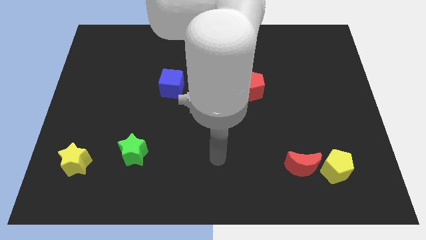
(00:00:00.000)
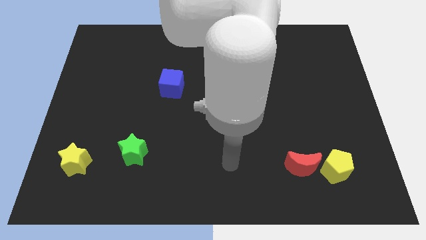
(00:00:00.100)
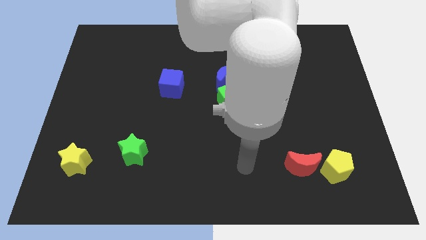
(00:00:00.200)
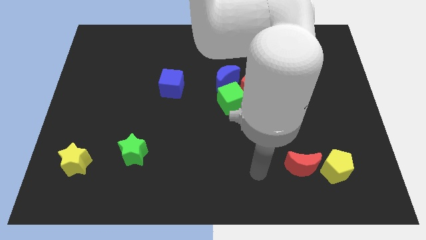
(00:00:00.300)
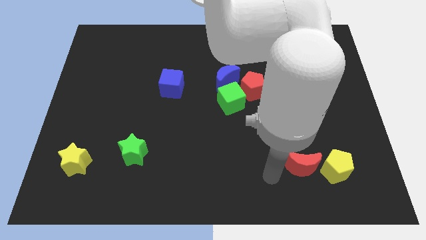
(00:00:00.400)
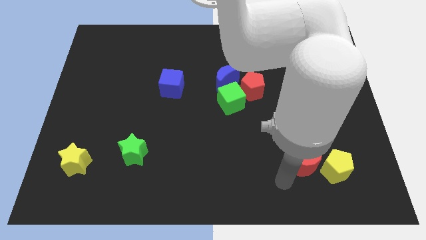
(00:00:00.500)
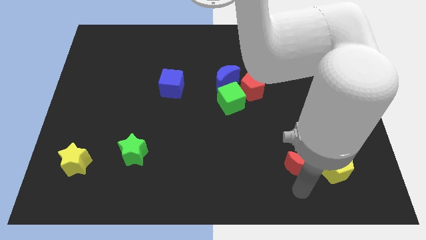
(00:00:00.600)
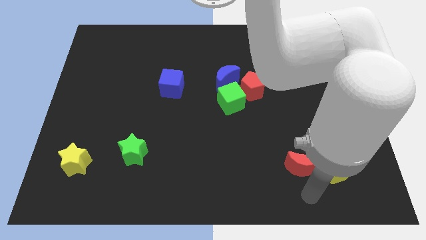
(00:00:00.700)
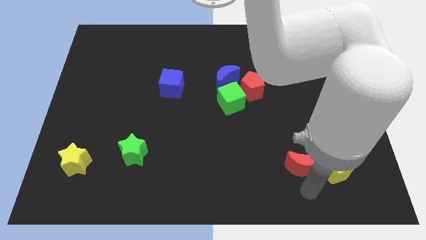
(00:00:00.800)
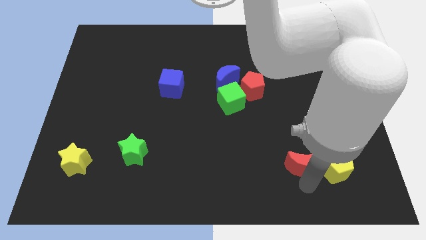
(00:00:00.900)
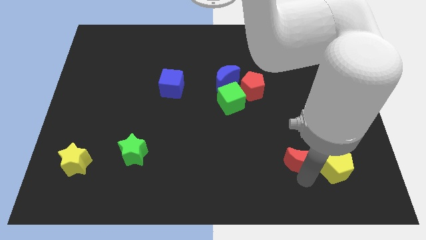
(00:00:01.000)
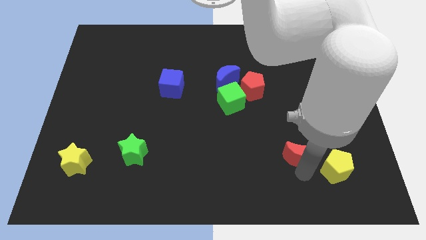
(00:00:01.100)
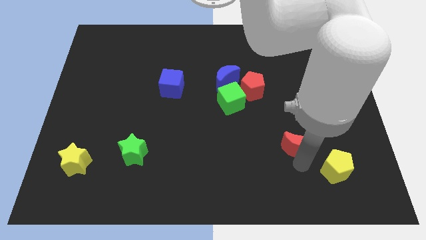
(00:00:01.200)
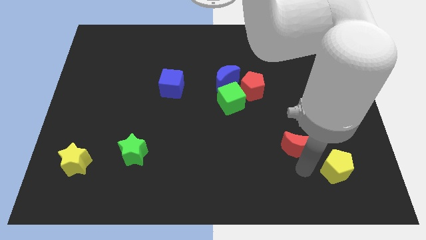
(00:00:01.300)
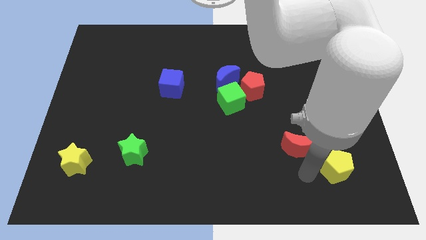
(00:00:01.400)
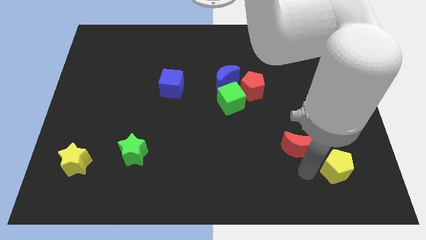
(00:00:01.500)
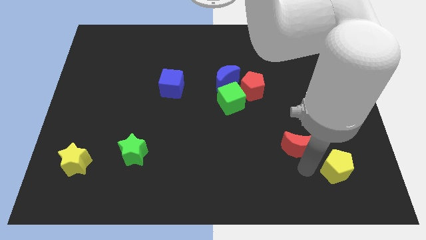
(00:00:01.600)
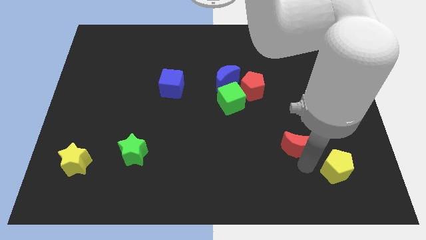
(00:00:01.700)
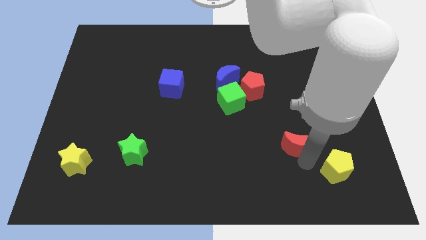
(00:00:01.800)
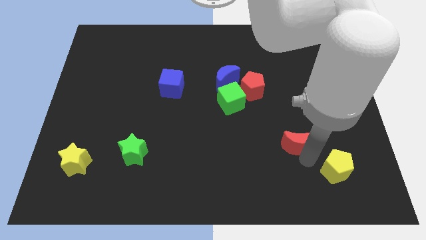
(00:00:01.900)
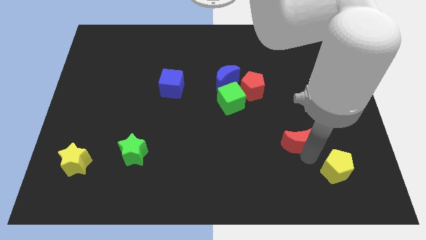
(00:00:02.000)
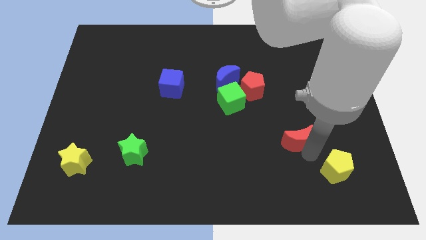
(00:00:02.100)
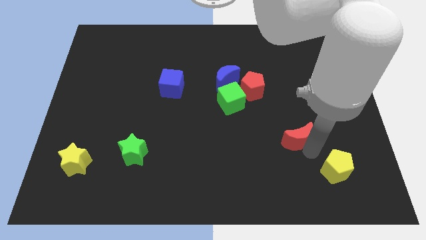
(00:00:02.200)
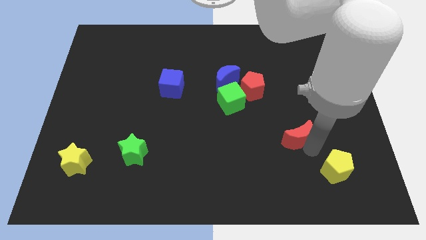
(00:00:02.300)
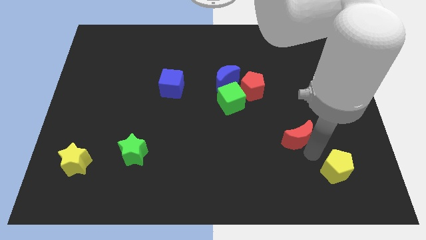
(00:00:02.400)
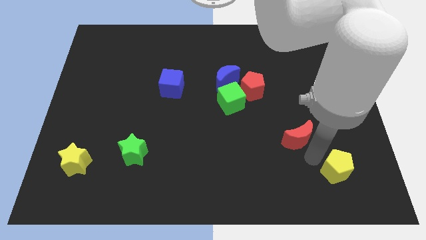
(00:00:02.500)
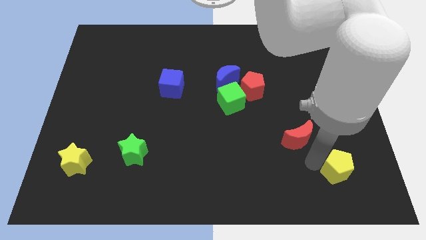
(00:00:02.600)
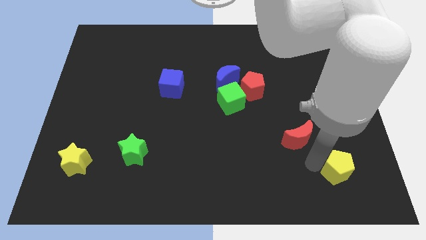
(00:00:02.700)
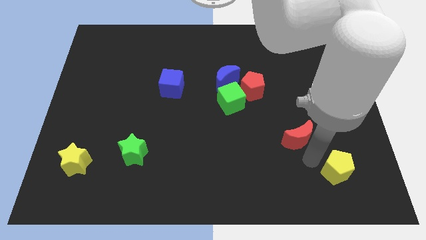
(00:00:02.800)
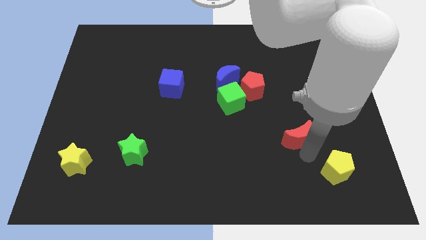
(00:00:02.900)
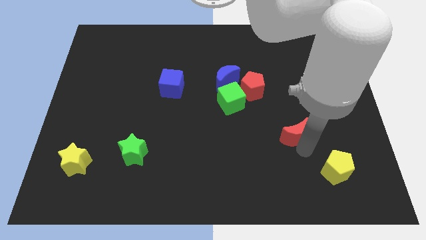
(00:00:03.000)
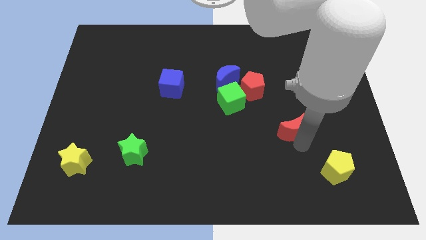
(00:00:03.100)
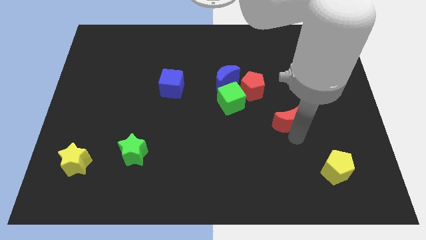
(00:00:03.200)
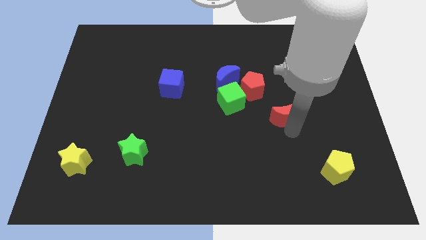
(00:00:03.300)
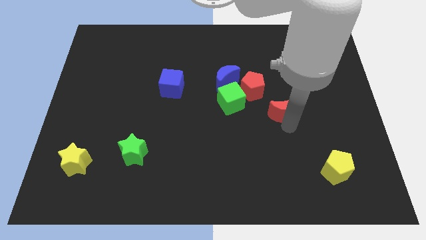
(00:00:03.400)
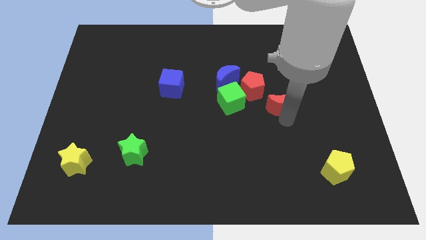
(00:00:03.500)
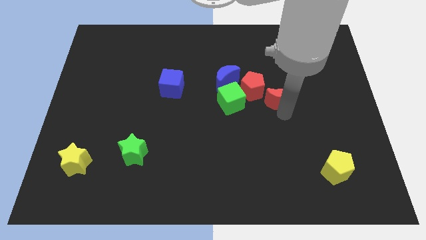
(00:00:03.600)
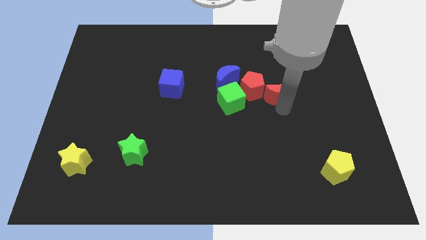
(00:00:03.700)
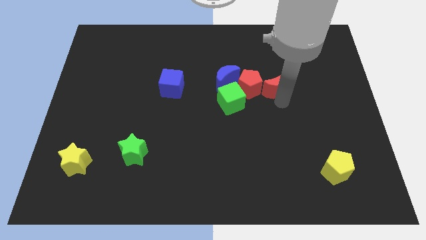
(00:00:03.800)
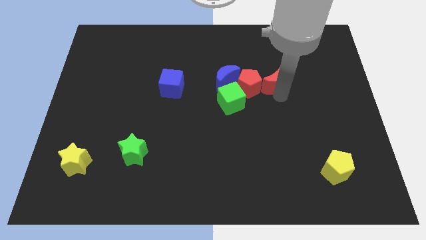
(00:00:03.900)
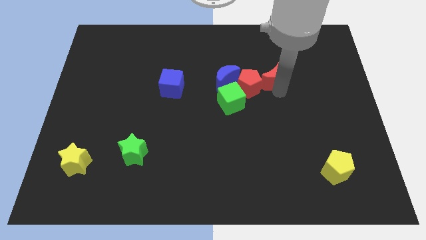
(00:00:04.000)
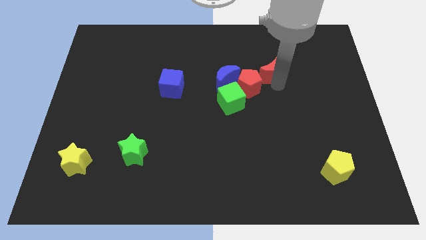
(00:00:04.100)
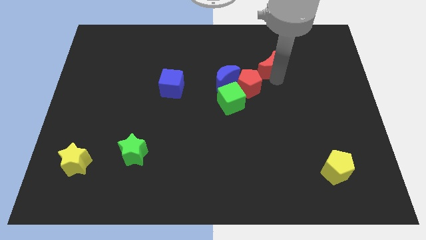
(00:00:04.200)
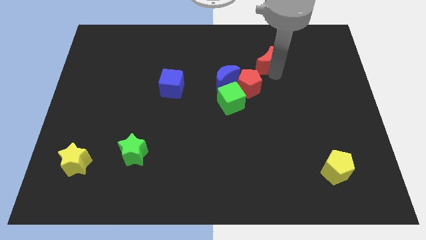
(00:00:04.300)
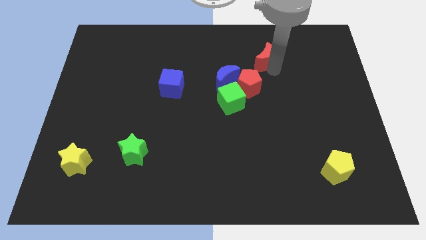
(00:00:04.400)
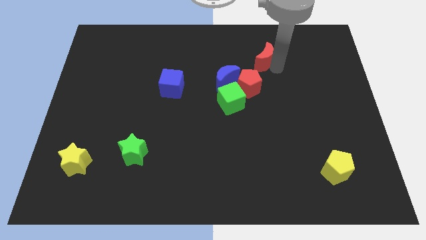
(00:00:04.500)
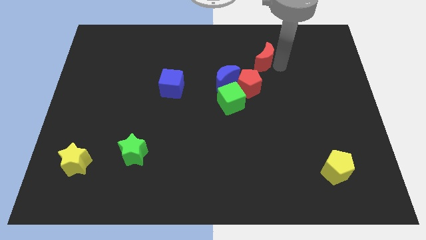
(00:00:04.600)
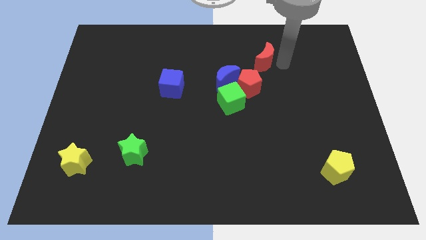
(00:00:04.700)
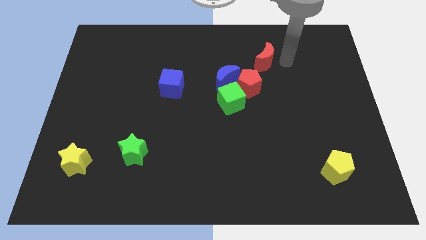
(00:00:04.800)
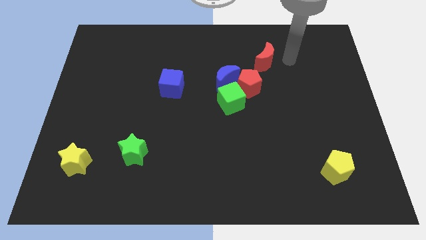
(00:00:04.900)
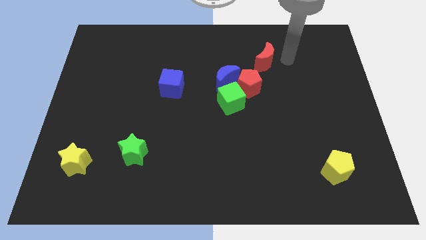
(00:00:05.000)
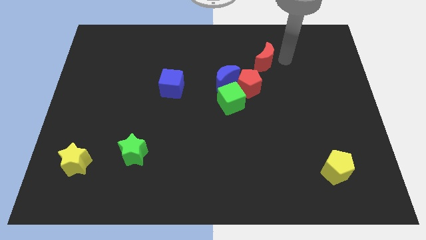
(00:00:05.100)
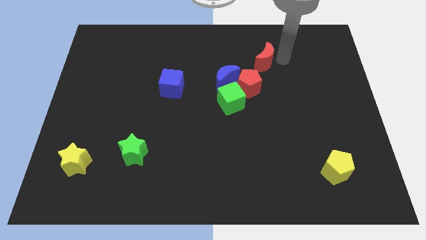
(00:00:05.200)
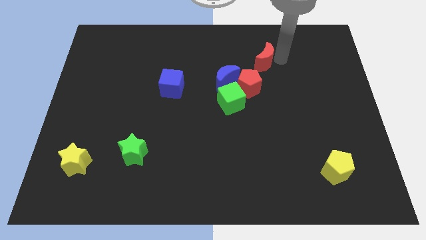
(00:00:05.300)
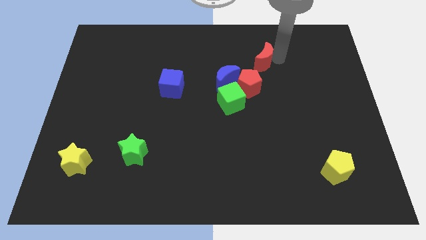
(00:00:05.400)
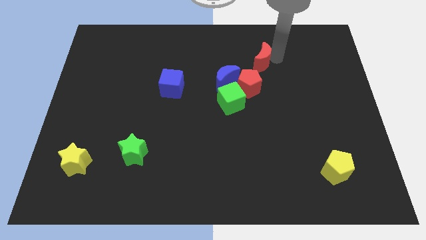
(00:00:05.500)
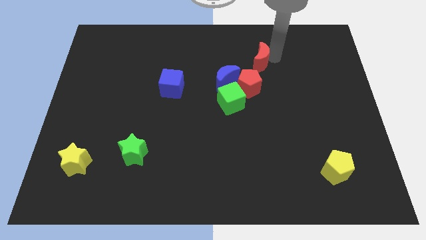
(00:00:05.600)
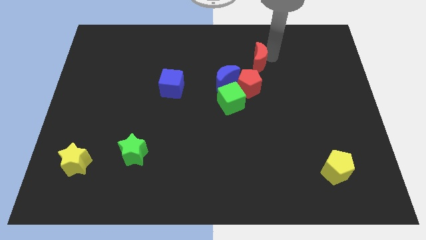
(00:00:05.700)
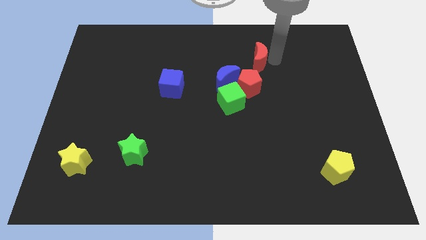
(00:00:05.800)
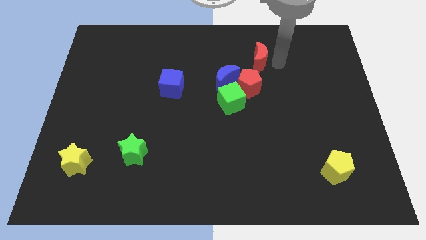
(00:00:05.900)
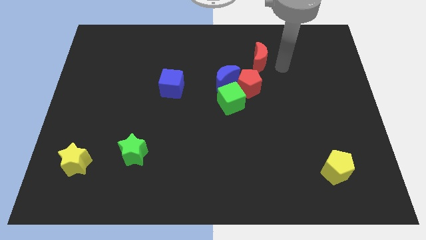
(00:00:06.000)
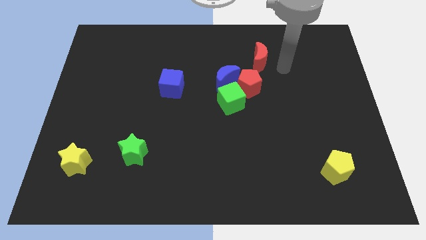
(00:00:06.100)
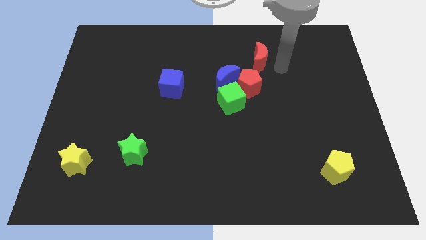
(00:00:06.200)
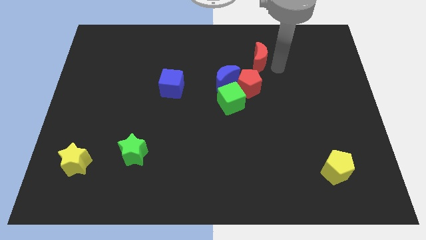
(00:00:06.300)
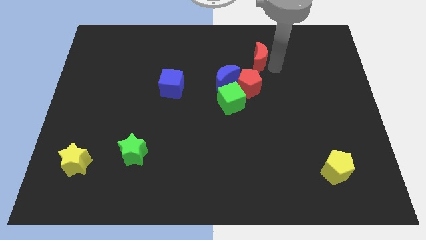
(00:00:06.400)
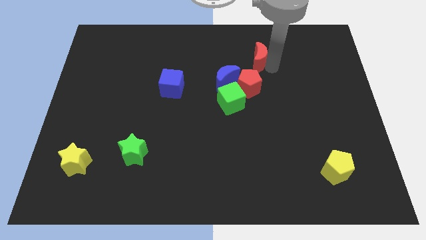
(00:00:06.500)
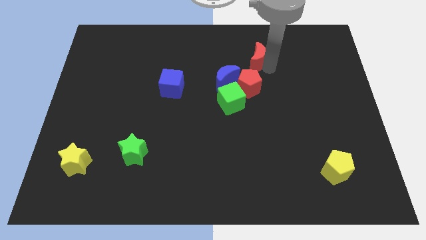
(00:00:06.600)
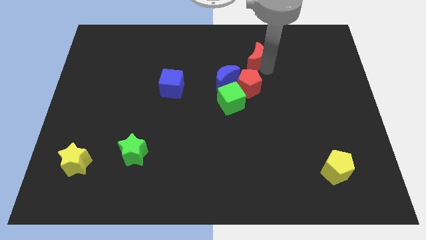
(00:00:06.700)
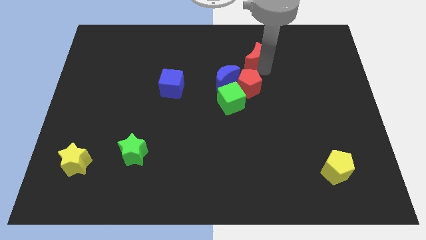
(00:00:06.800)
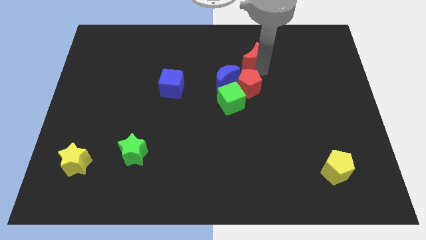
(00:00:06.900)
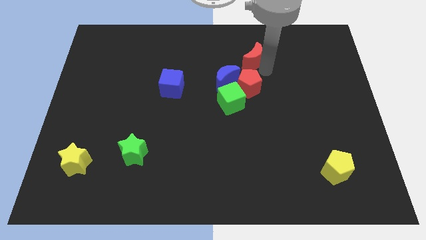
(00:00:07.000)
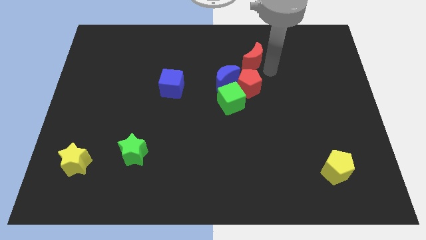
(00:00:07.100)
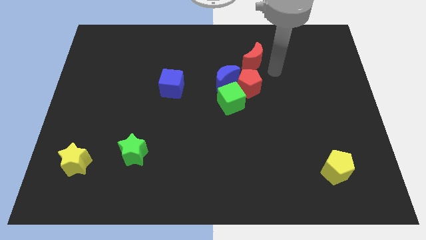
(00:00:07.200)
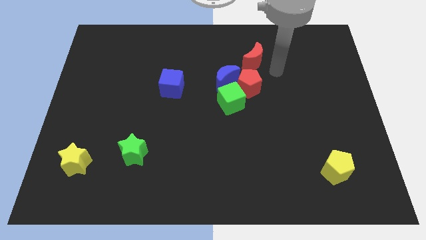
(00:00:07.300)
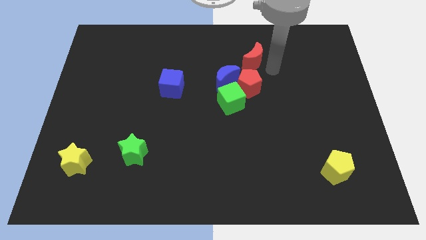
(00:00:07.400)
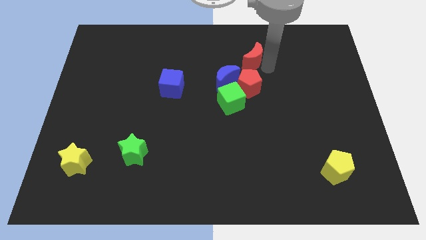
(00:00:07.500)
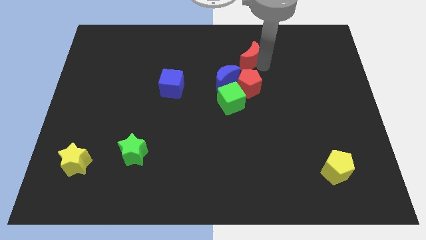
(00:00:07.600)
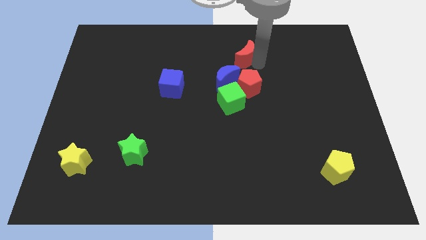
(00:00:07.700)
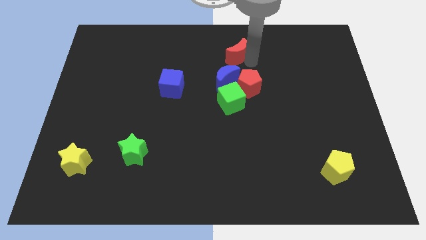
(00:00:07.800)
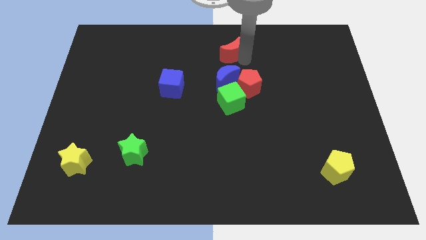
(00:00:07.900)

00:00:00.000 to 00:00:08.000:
move the red moon to the top side
